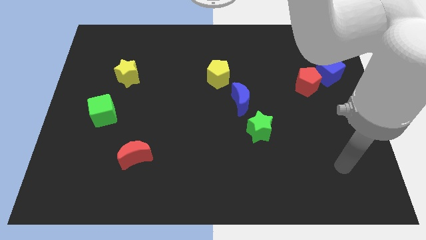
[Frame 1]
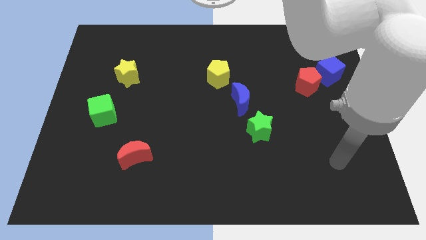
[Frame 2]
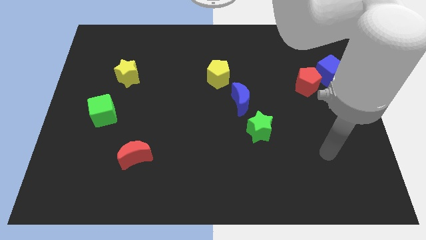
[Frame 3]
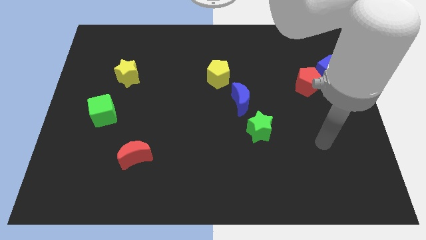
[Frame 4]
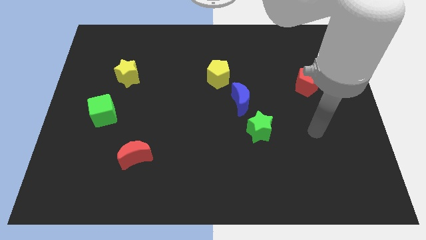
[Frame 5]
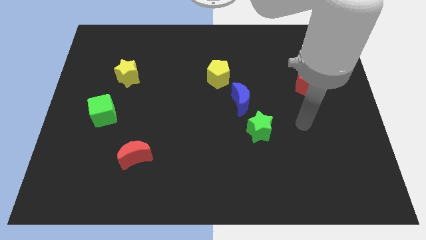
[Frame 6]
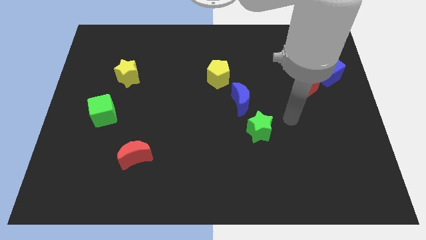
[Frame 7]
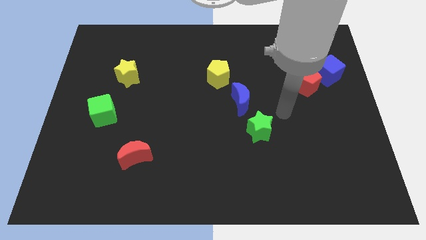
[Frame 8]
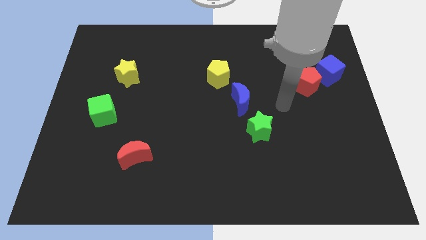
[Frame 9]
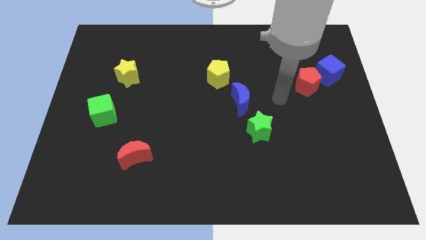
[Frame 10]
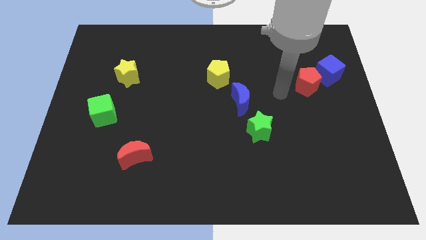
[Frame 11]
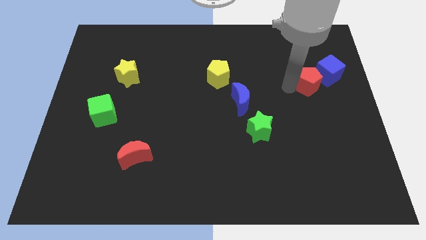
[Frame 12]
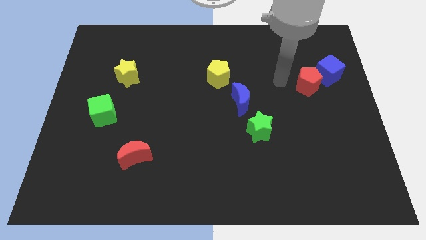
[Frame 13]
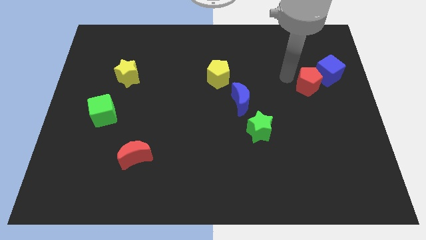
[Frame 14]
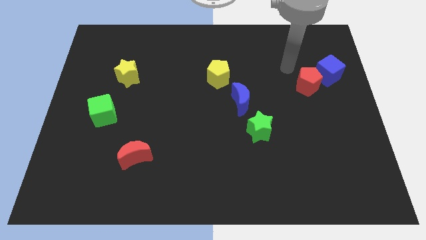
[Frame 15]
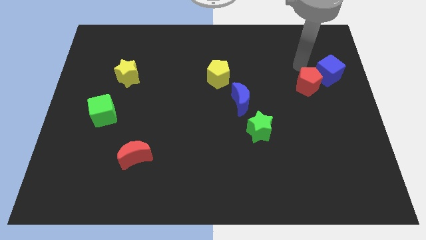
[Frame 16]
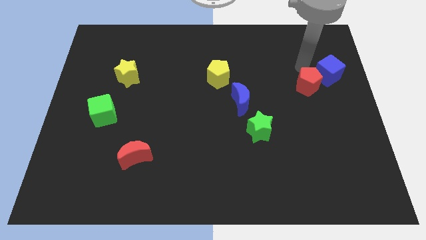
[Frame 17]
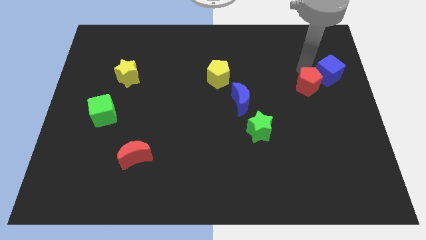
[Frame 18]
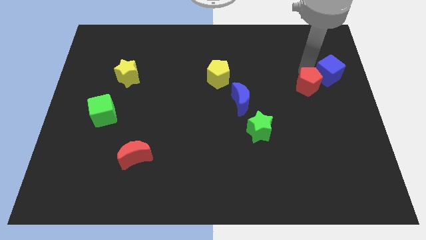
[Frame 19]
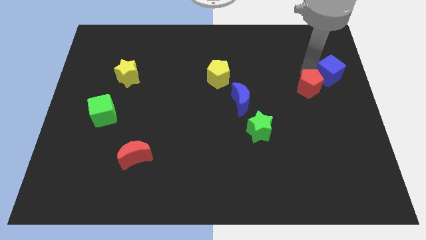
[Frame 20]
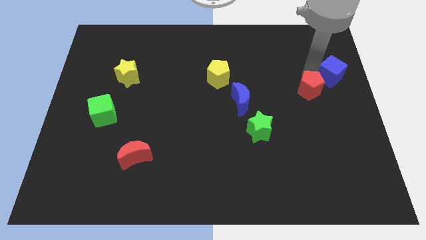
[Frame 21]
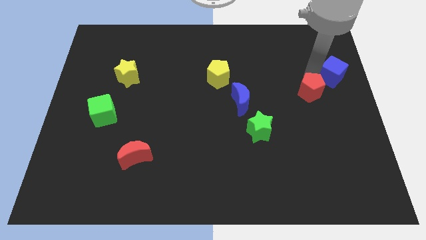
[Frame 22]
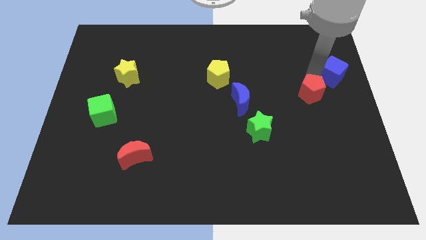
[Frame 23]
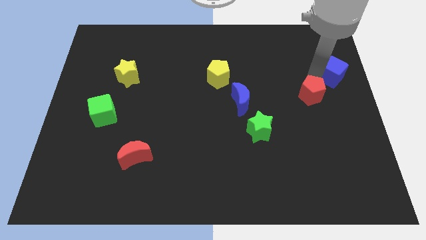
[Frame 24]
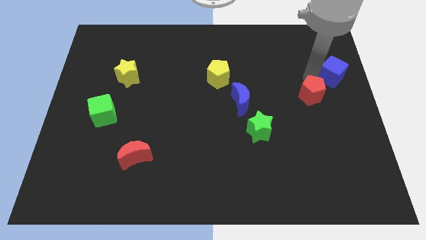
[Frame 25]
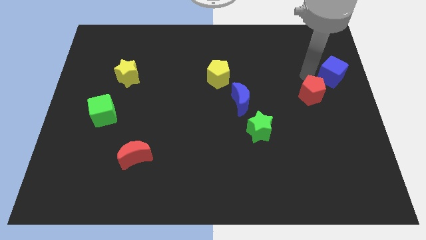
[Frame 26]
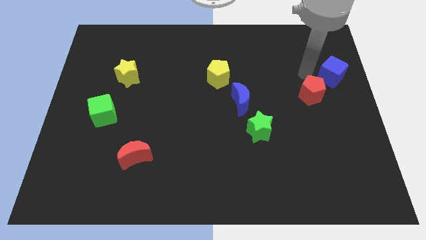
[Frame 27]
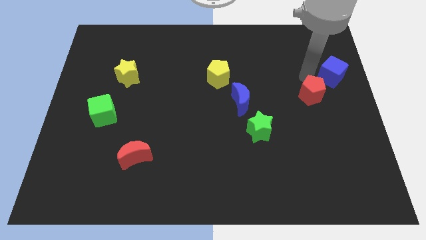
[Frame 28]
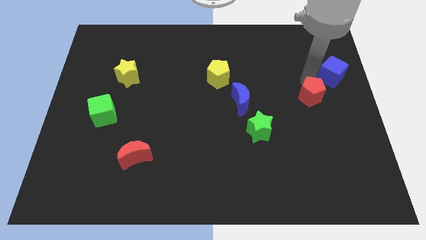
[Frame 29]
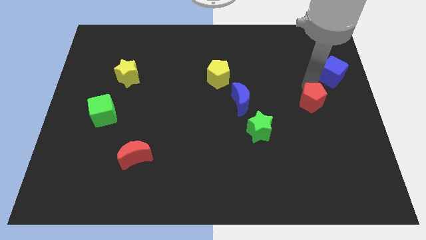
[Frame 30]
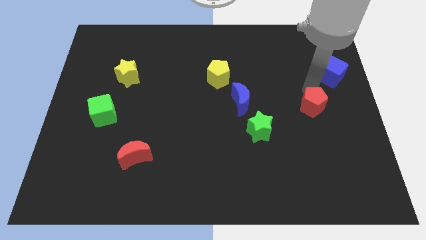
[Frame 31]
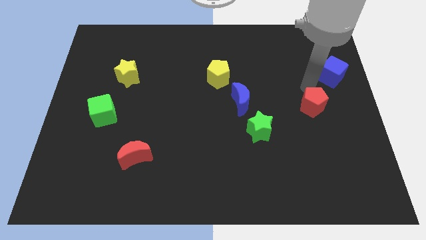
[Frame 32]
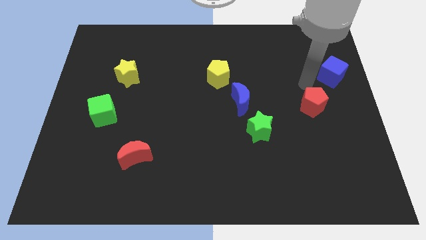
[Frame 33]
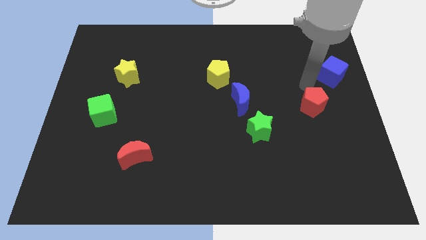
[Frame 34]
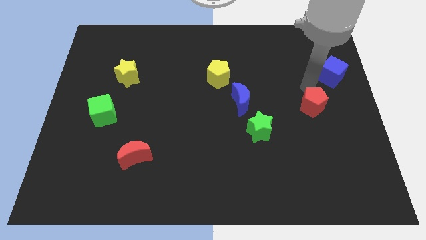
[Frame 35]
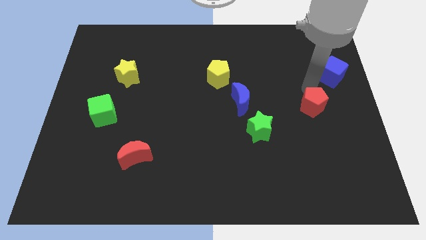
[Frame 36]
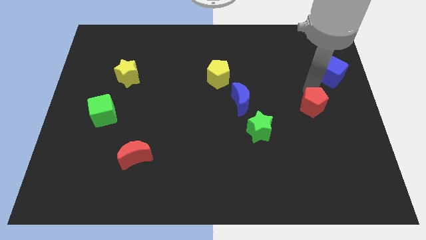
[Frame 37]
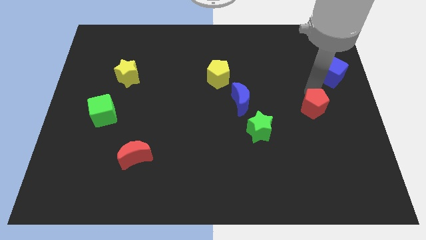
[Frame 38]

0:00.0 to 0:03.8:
push the red pentagon downwards a little bit

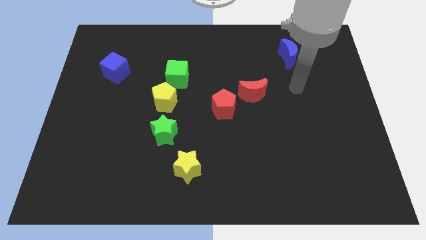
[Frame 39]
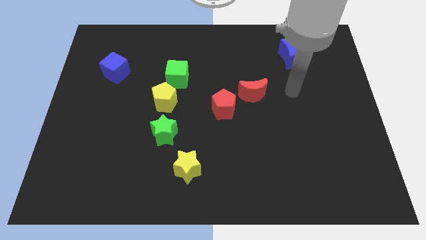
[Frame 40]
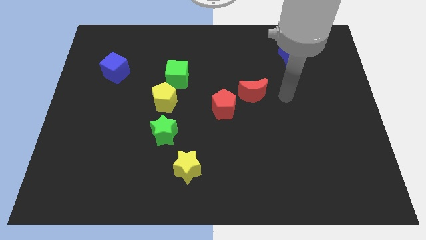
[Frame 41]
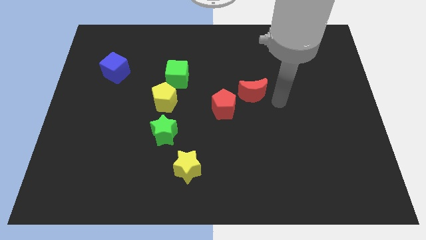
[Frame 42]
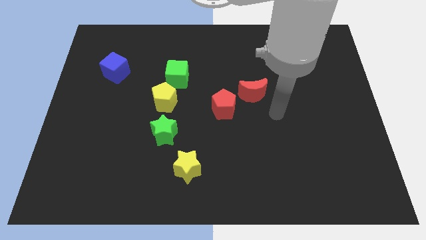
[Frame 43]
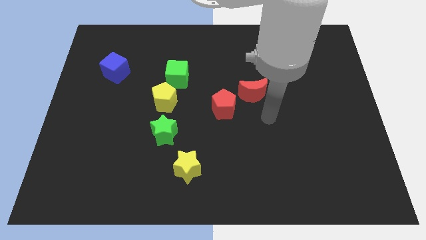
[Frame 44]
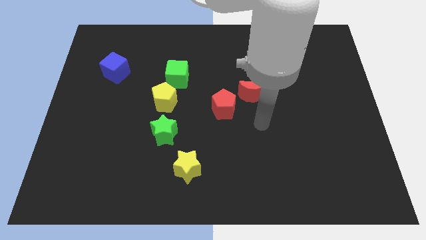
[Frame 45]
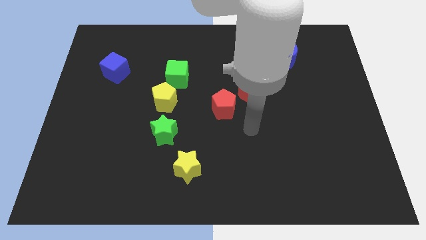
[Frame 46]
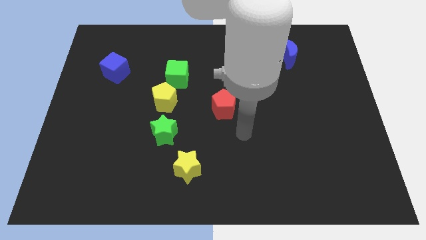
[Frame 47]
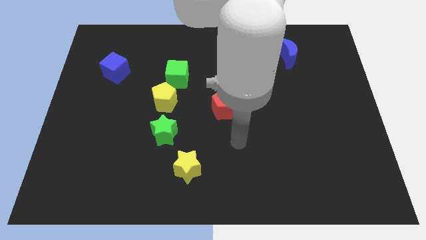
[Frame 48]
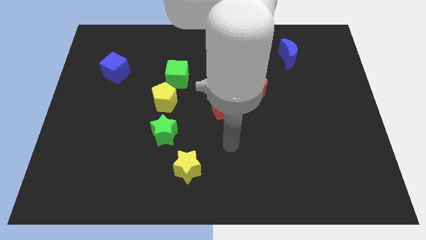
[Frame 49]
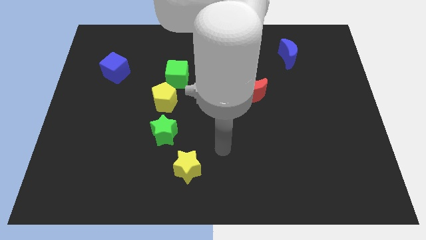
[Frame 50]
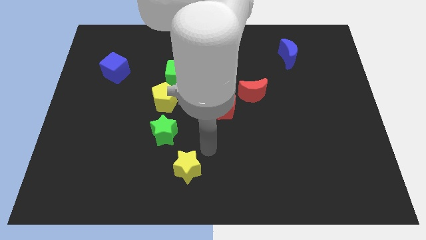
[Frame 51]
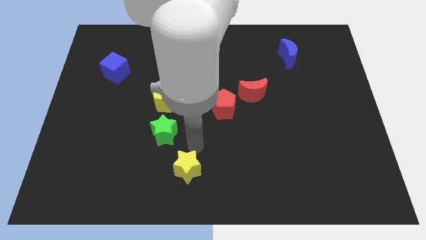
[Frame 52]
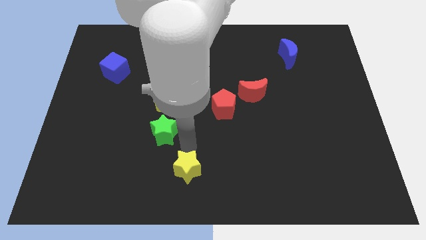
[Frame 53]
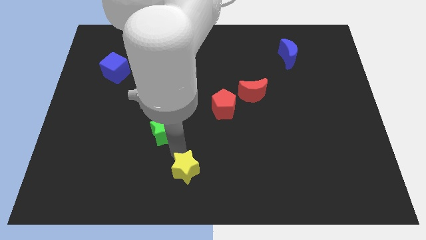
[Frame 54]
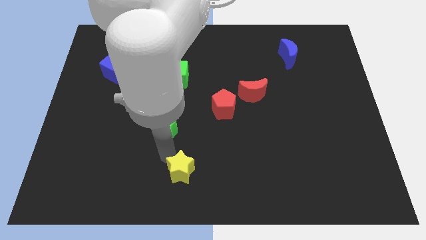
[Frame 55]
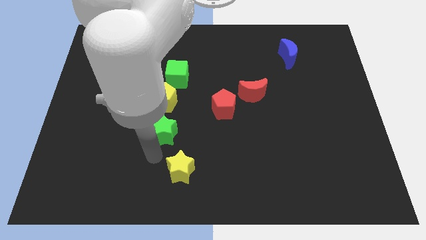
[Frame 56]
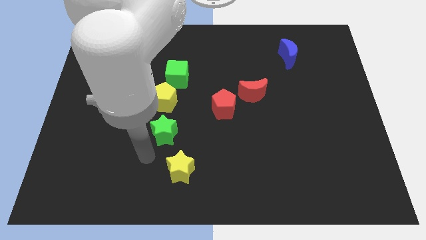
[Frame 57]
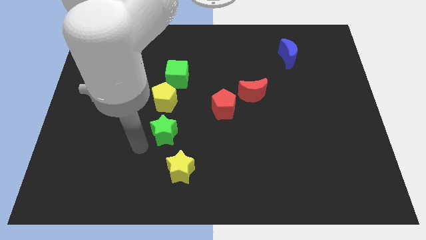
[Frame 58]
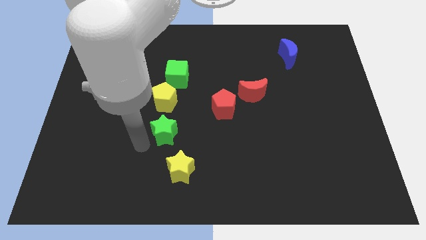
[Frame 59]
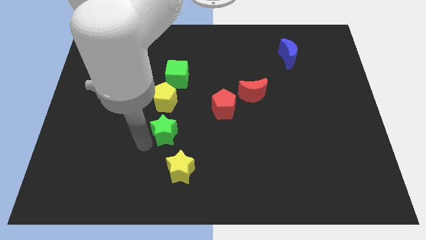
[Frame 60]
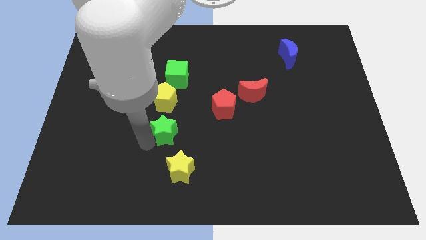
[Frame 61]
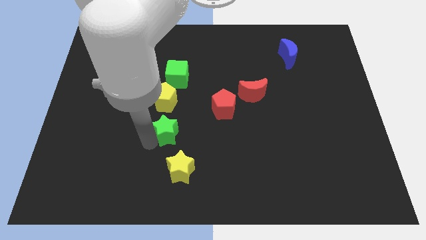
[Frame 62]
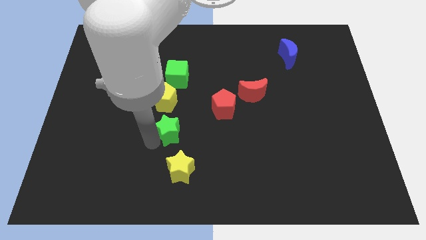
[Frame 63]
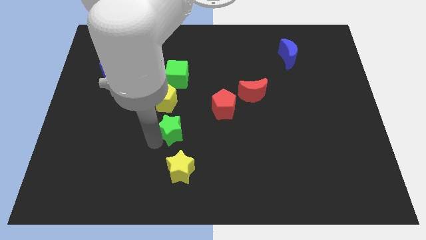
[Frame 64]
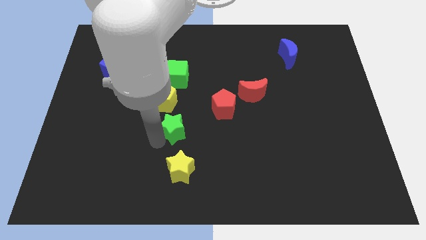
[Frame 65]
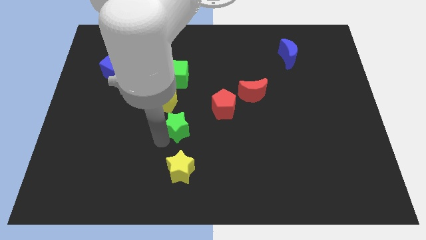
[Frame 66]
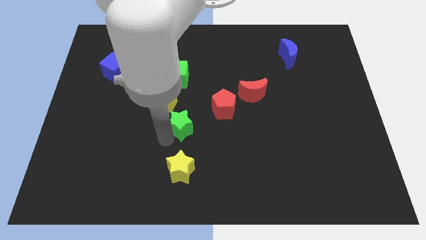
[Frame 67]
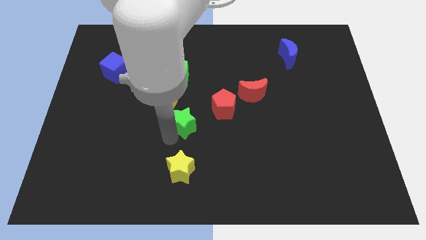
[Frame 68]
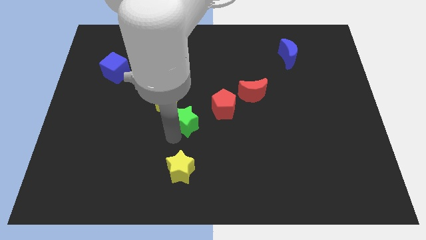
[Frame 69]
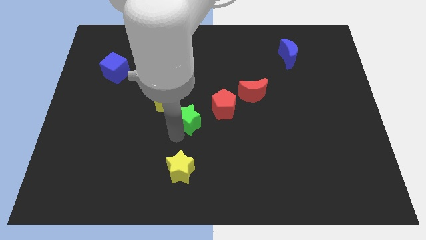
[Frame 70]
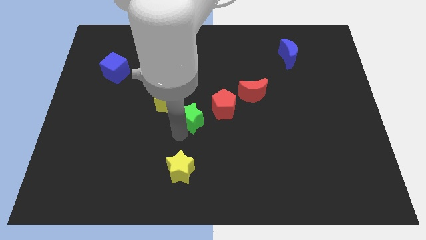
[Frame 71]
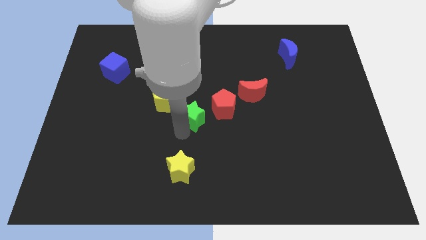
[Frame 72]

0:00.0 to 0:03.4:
slightly push the green star upwards and right

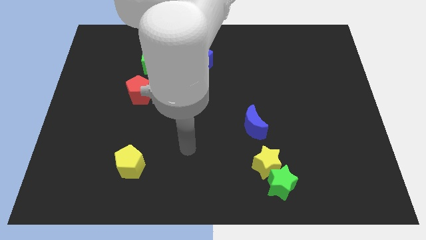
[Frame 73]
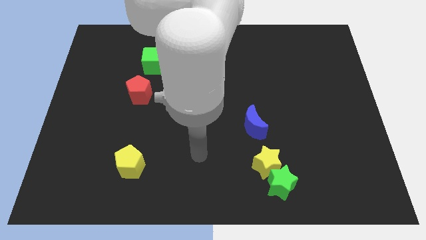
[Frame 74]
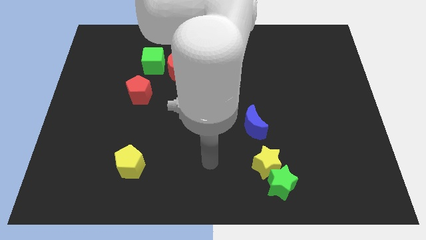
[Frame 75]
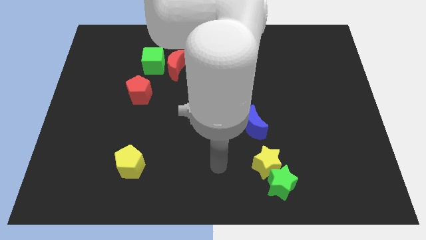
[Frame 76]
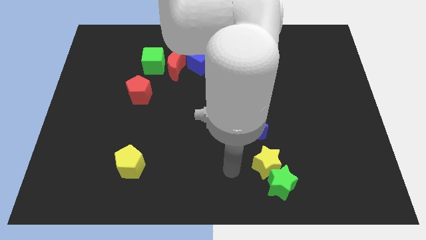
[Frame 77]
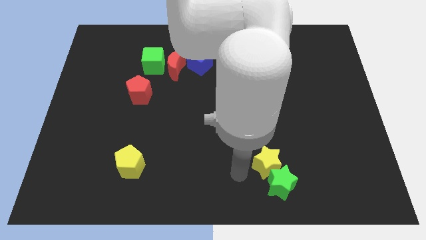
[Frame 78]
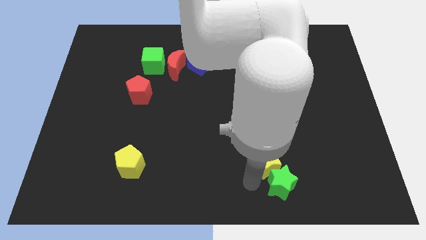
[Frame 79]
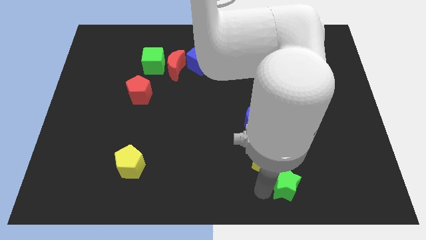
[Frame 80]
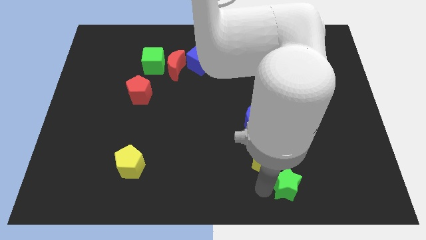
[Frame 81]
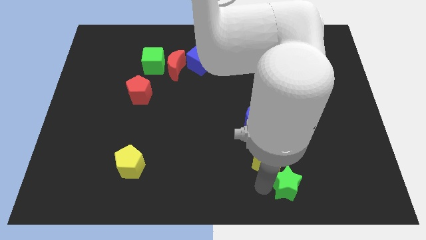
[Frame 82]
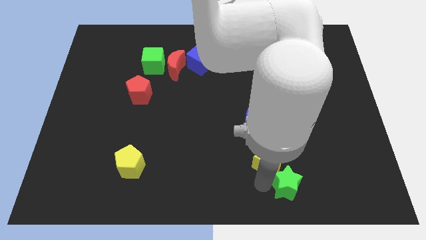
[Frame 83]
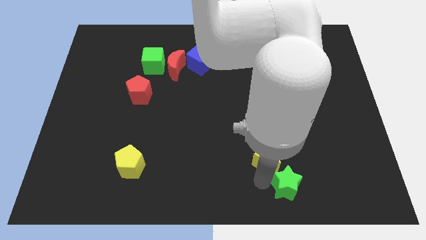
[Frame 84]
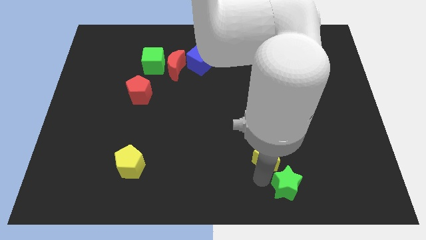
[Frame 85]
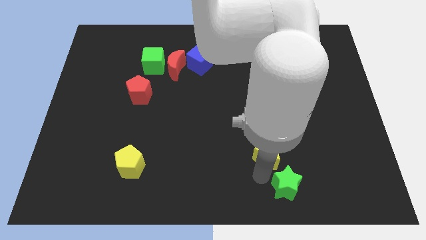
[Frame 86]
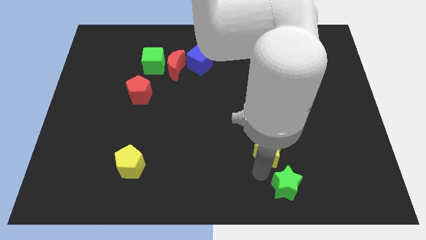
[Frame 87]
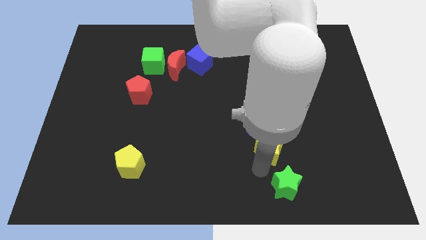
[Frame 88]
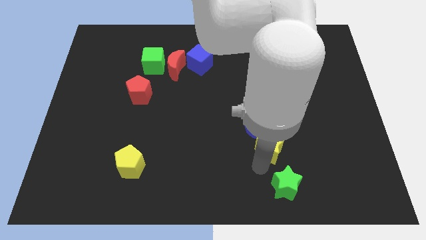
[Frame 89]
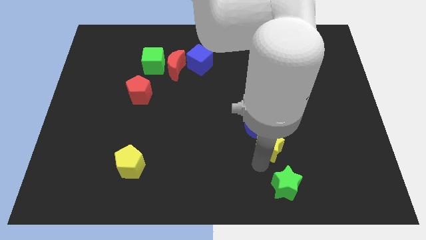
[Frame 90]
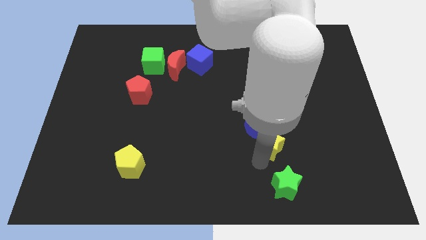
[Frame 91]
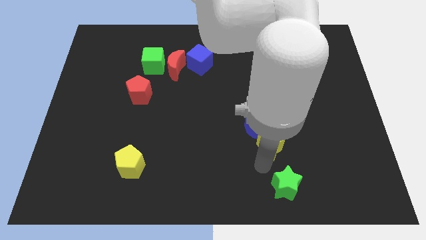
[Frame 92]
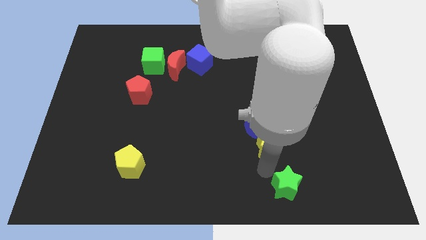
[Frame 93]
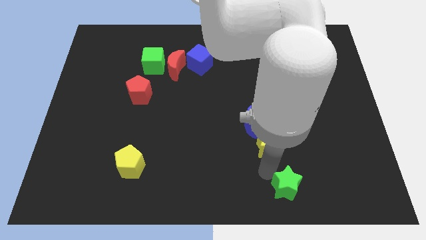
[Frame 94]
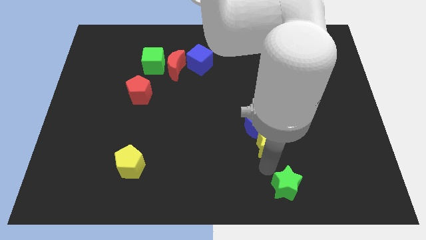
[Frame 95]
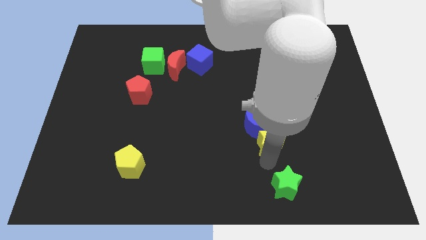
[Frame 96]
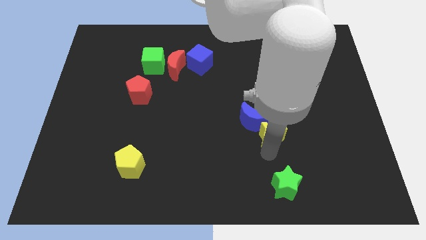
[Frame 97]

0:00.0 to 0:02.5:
slide the yellow star upwards a little
